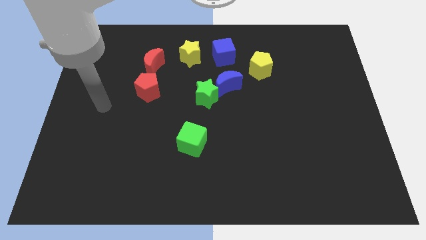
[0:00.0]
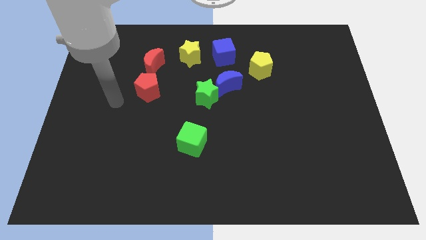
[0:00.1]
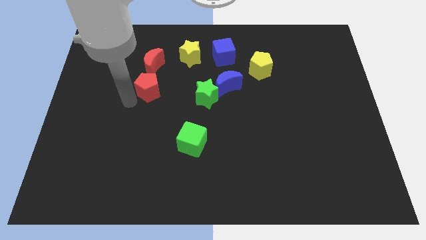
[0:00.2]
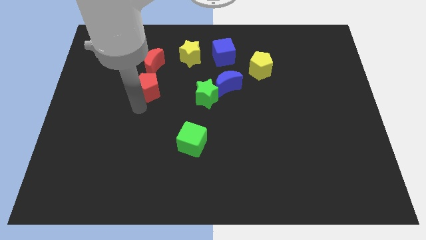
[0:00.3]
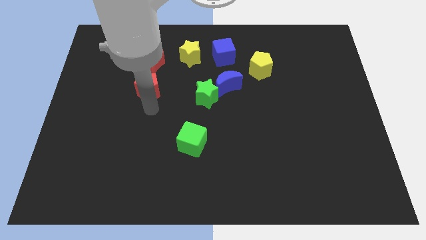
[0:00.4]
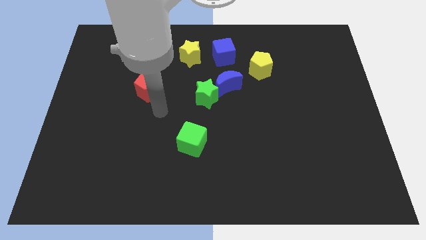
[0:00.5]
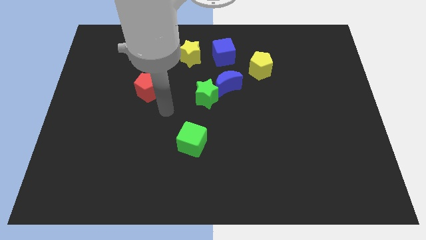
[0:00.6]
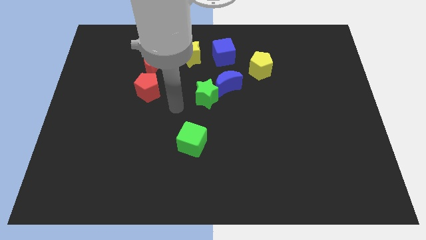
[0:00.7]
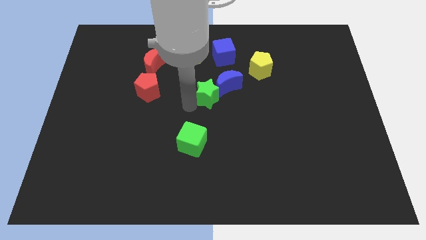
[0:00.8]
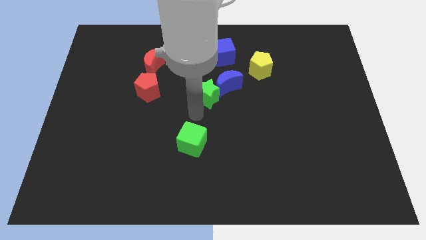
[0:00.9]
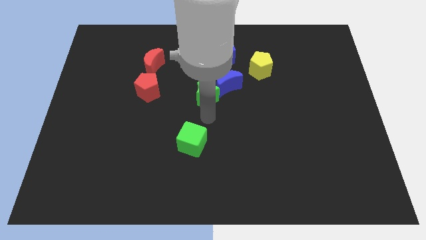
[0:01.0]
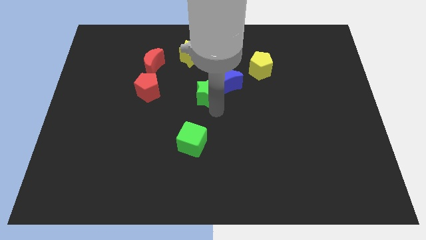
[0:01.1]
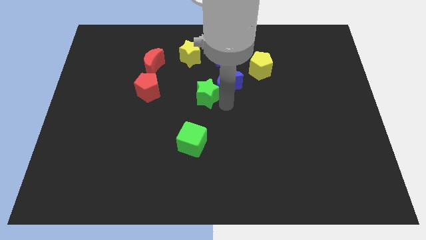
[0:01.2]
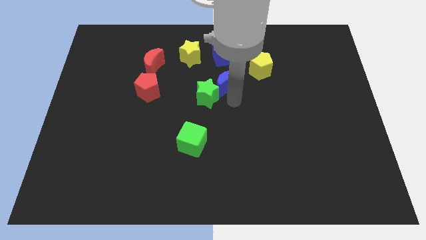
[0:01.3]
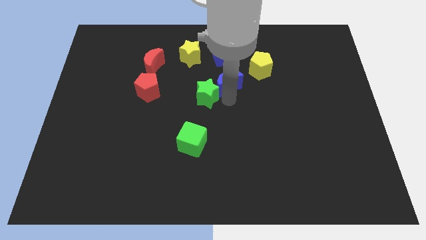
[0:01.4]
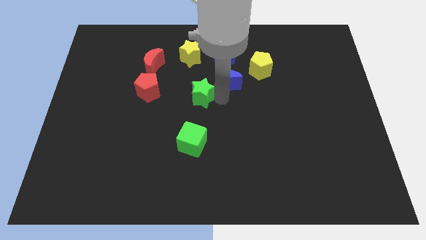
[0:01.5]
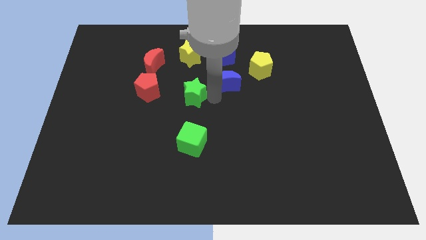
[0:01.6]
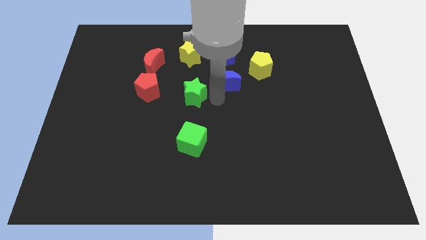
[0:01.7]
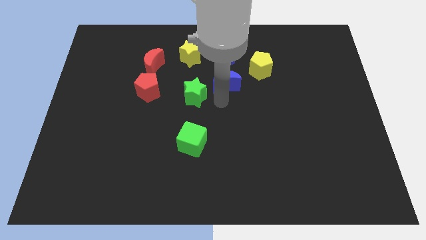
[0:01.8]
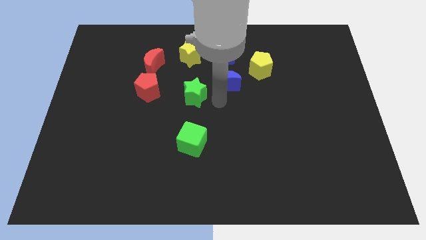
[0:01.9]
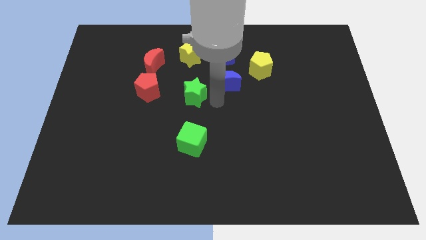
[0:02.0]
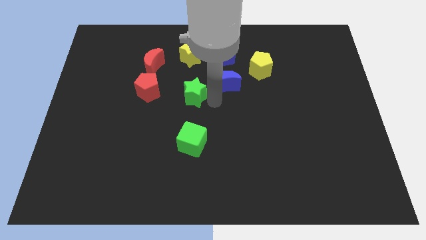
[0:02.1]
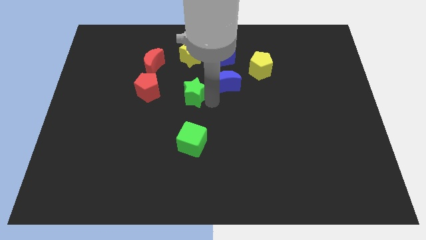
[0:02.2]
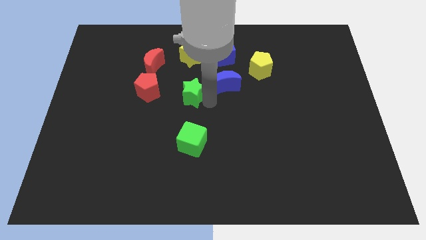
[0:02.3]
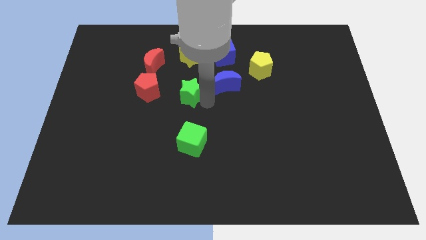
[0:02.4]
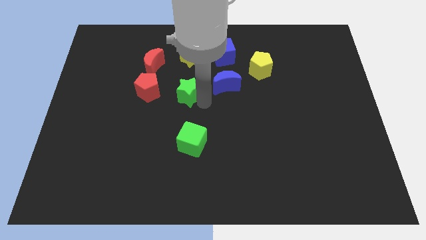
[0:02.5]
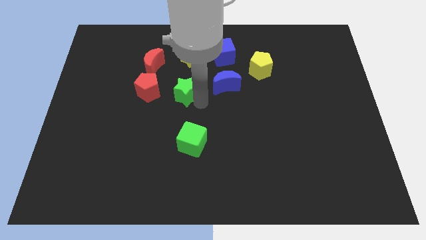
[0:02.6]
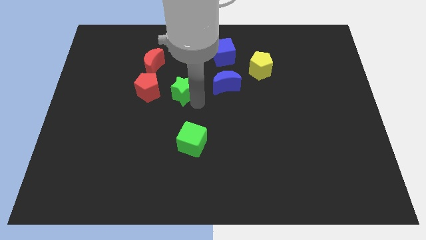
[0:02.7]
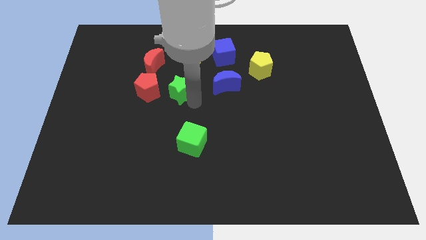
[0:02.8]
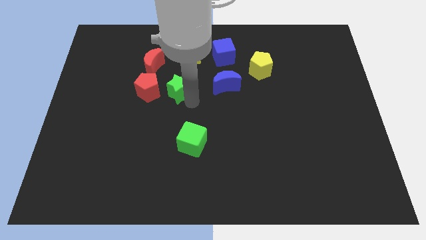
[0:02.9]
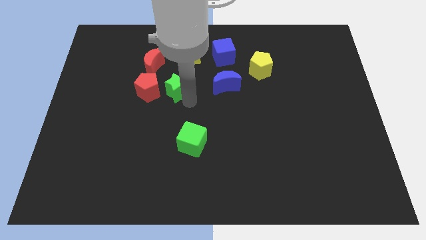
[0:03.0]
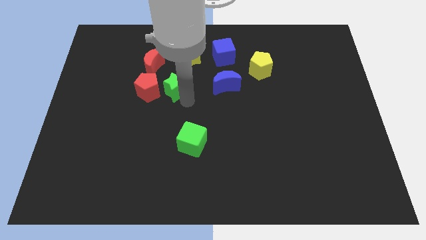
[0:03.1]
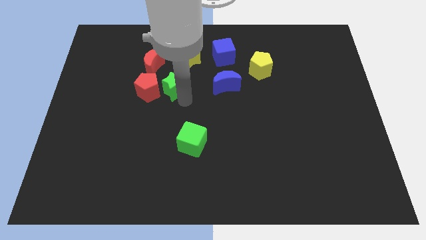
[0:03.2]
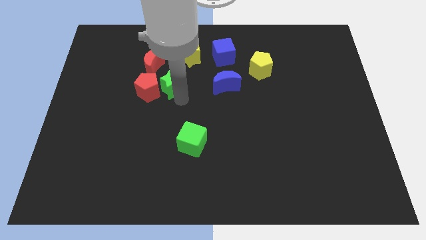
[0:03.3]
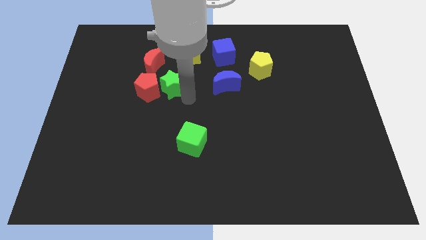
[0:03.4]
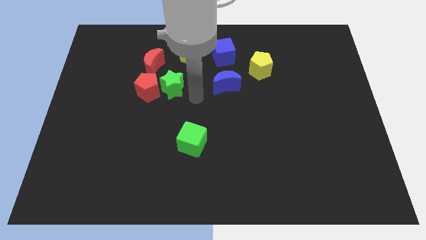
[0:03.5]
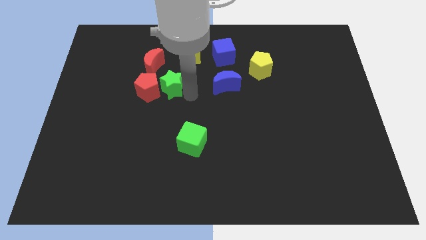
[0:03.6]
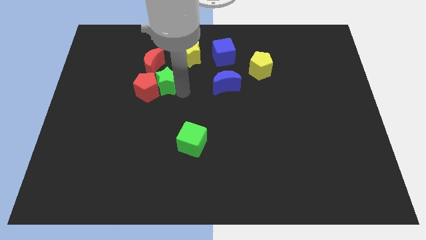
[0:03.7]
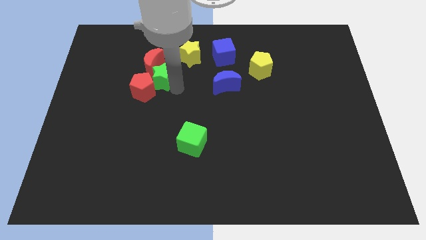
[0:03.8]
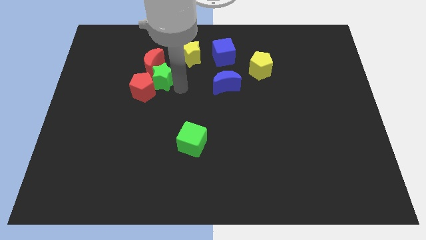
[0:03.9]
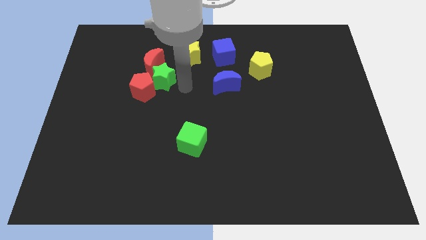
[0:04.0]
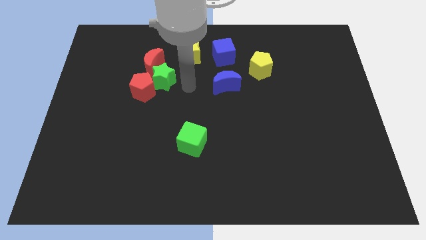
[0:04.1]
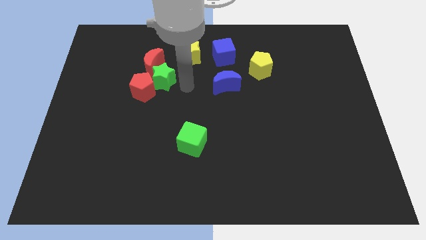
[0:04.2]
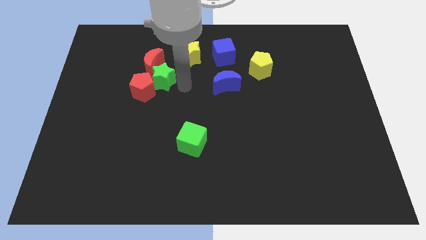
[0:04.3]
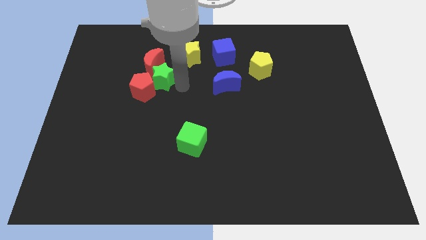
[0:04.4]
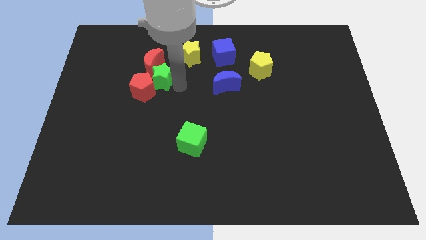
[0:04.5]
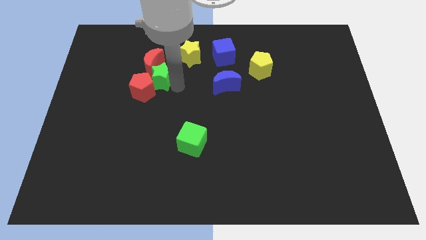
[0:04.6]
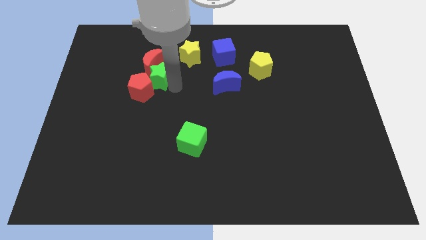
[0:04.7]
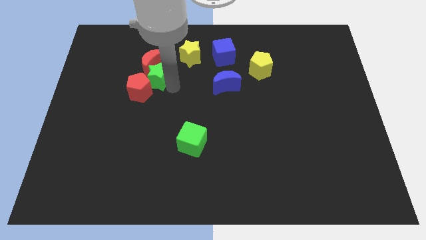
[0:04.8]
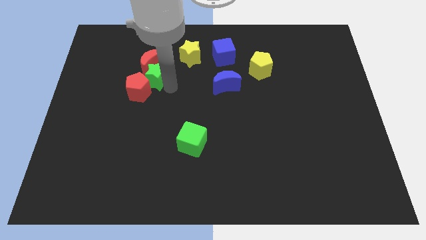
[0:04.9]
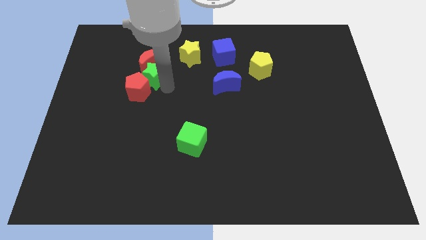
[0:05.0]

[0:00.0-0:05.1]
push the green star to the bottom left side of the red moon

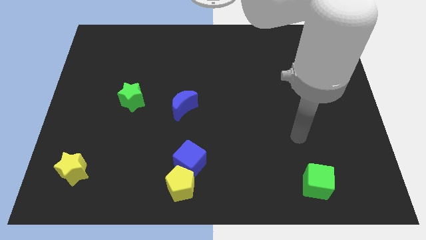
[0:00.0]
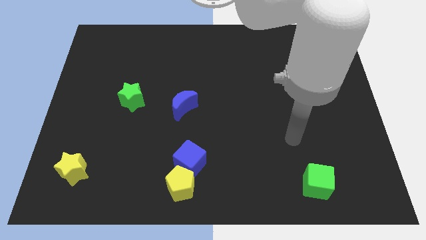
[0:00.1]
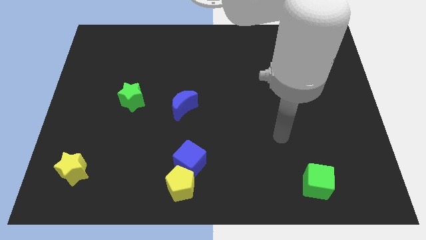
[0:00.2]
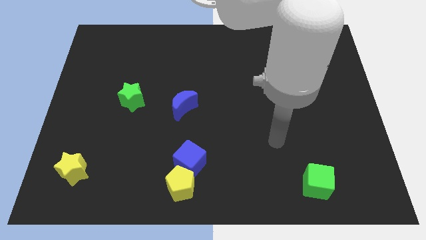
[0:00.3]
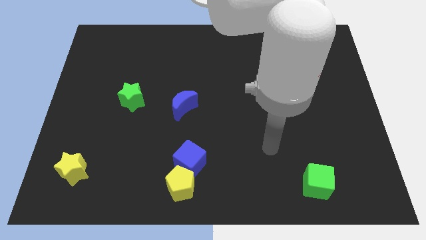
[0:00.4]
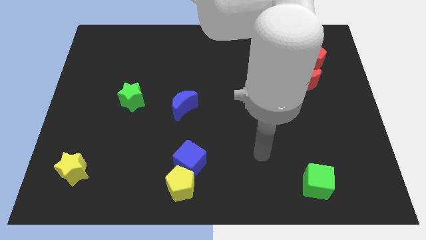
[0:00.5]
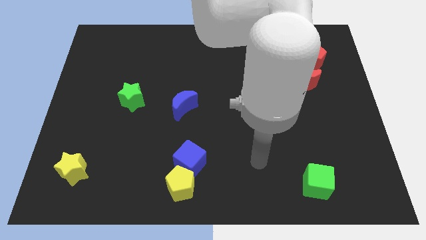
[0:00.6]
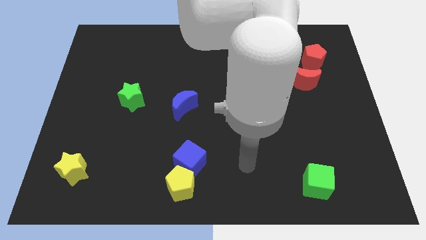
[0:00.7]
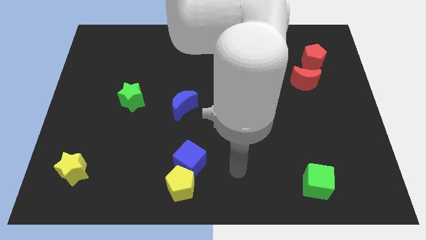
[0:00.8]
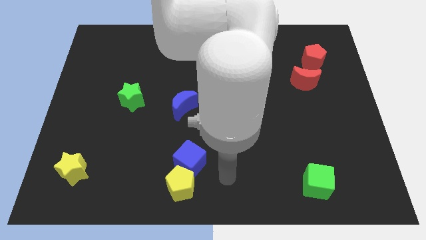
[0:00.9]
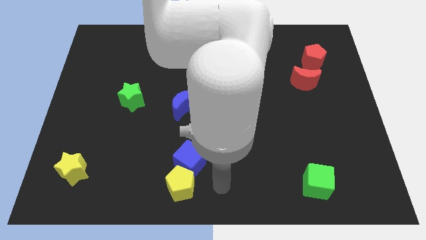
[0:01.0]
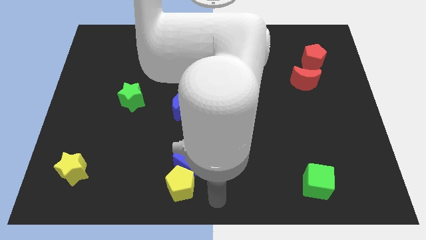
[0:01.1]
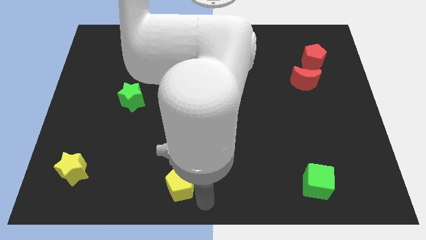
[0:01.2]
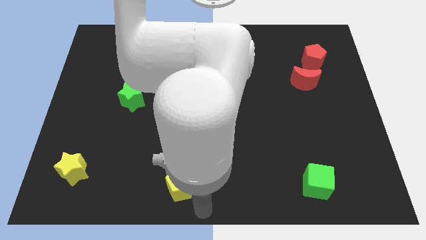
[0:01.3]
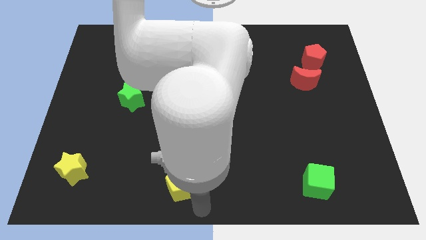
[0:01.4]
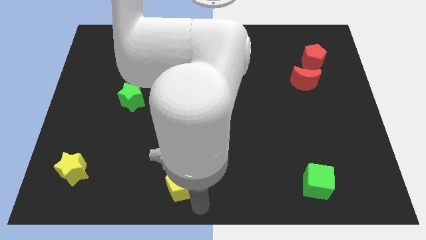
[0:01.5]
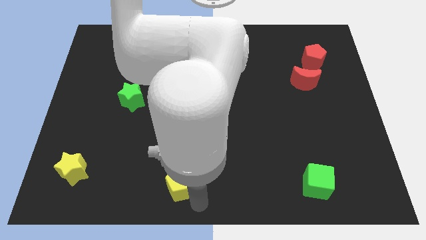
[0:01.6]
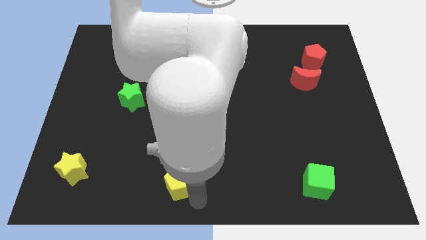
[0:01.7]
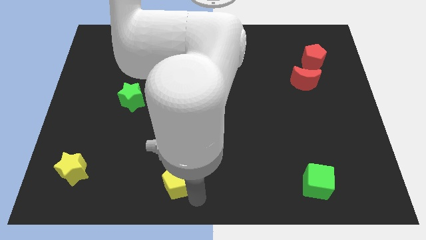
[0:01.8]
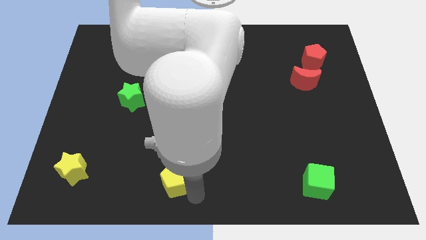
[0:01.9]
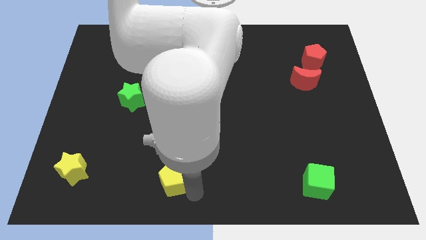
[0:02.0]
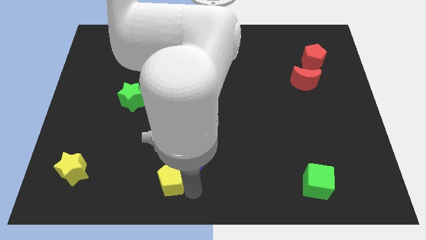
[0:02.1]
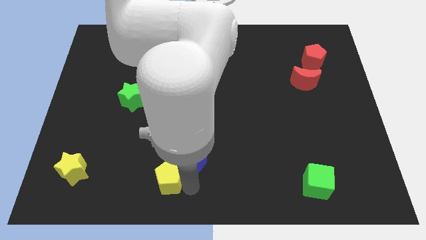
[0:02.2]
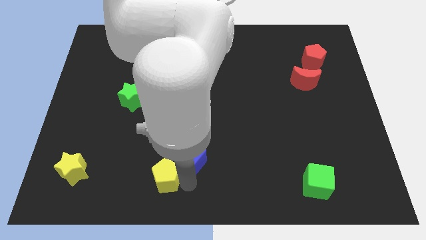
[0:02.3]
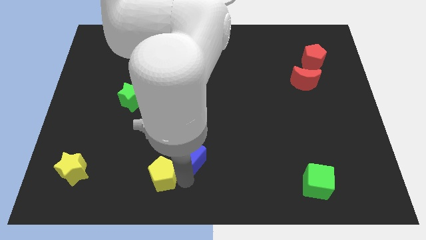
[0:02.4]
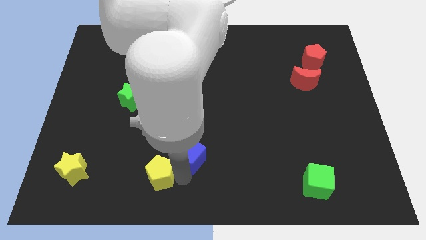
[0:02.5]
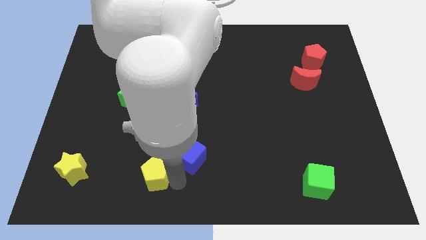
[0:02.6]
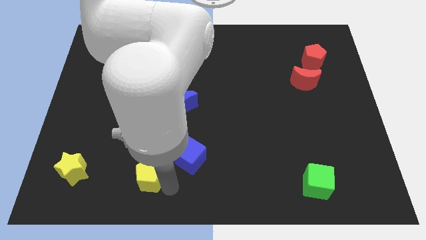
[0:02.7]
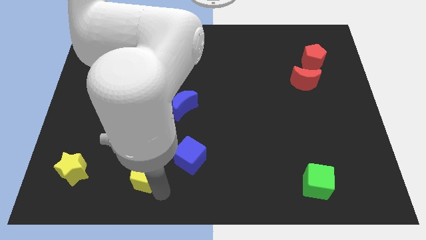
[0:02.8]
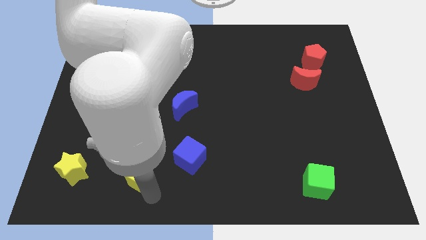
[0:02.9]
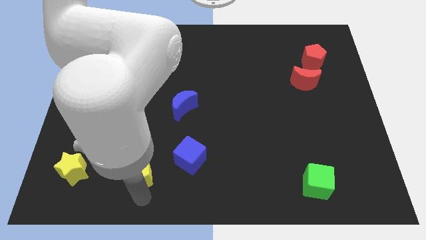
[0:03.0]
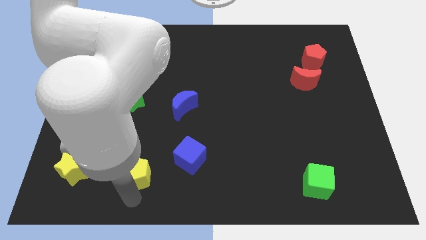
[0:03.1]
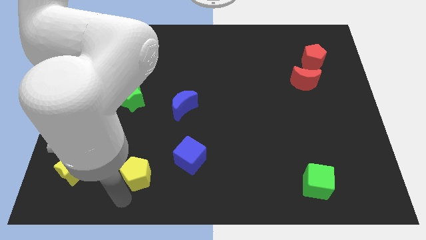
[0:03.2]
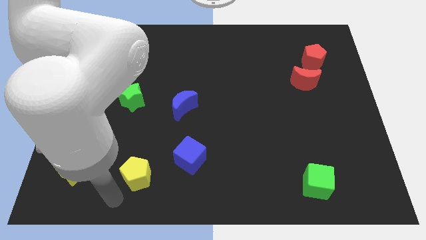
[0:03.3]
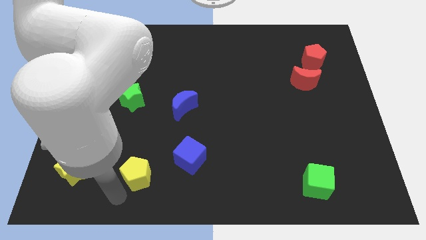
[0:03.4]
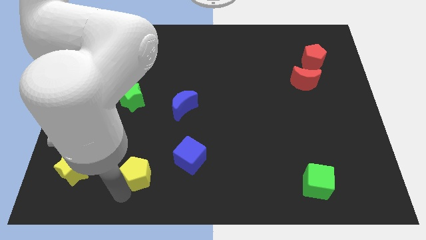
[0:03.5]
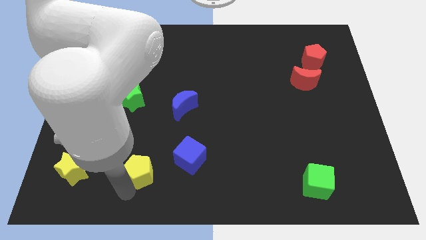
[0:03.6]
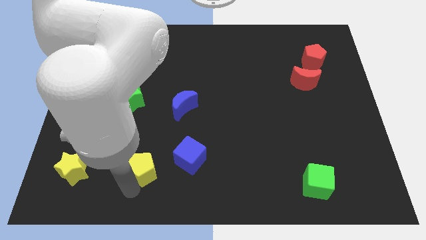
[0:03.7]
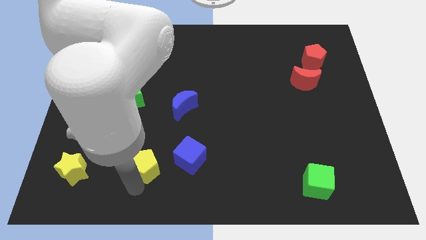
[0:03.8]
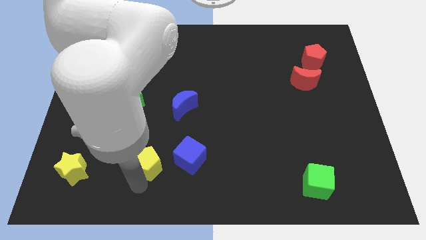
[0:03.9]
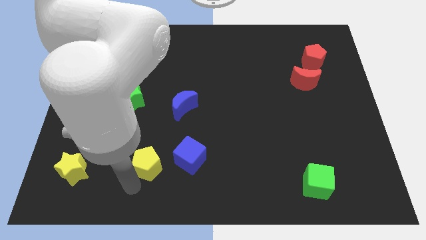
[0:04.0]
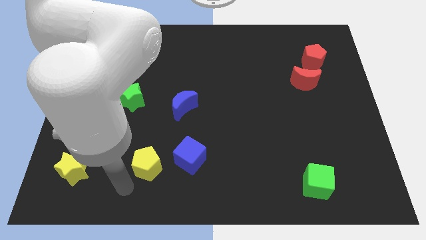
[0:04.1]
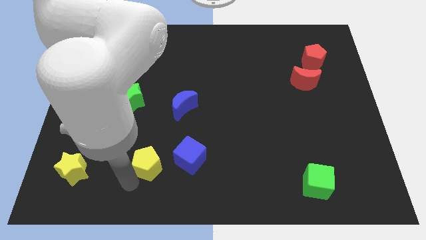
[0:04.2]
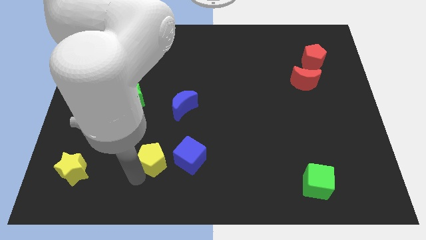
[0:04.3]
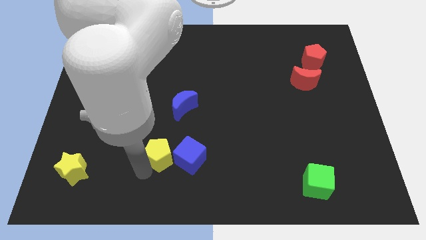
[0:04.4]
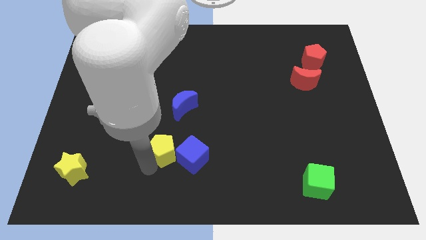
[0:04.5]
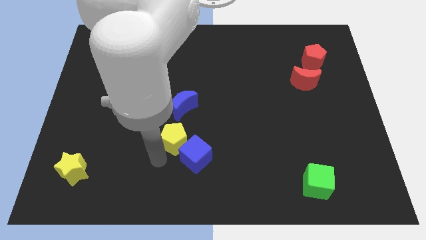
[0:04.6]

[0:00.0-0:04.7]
move the yellow pentagon to the top of the blue cube
